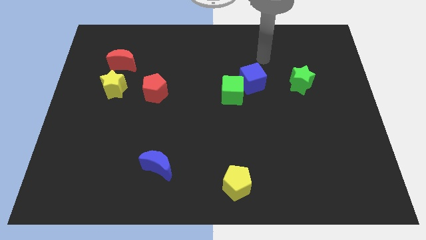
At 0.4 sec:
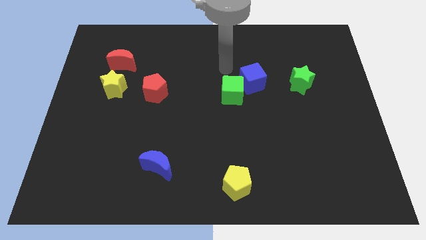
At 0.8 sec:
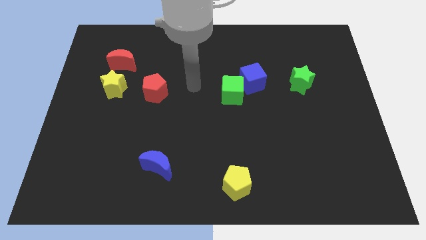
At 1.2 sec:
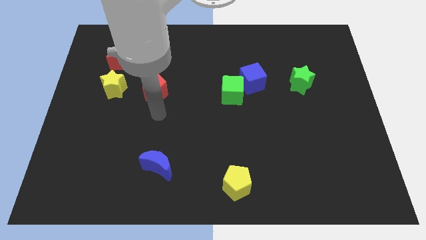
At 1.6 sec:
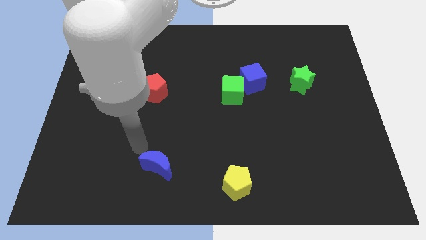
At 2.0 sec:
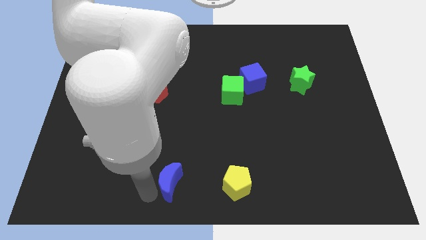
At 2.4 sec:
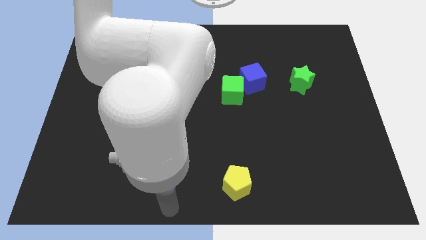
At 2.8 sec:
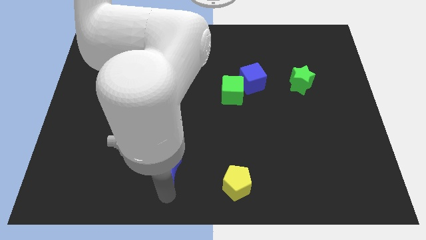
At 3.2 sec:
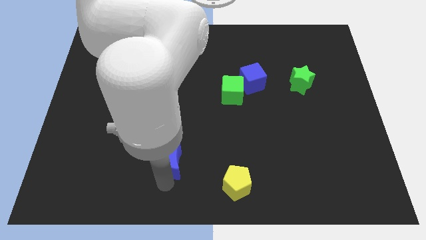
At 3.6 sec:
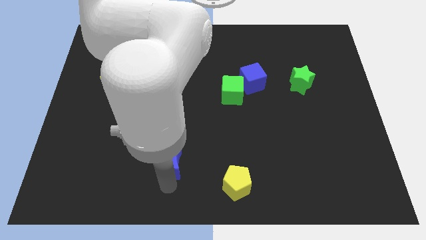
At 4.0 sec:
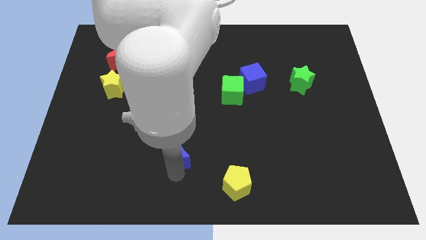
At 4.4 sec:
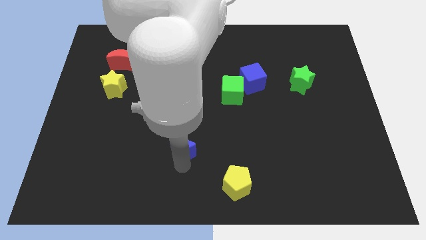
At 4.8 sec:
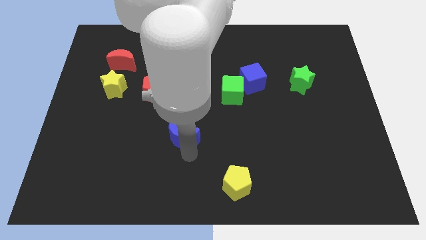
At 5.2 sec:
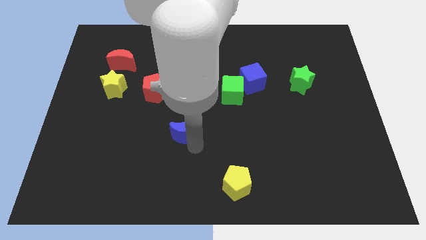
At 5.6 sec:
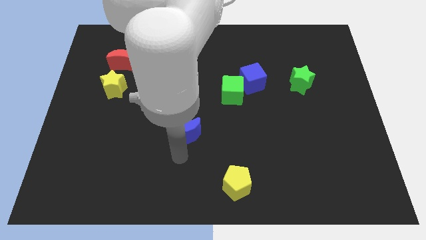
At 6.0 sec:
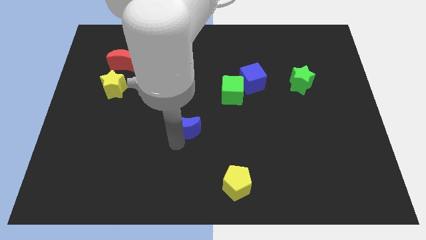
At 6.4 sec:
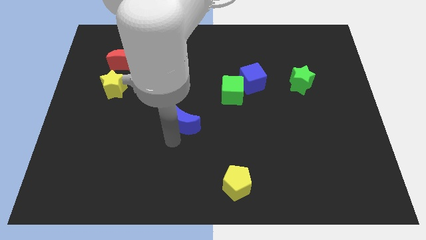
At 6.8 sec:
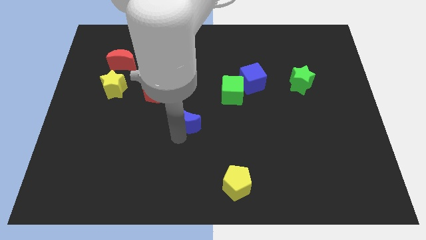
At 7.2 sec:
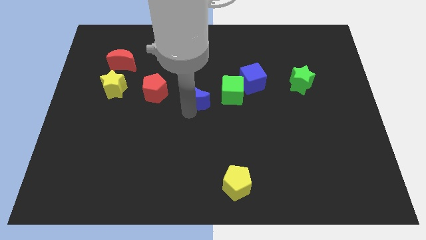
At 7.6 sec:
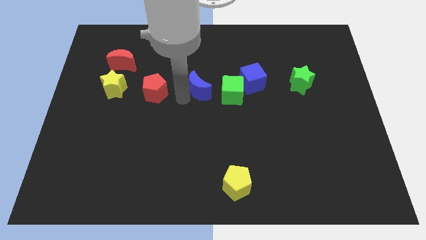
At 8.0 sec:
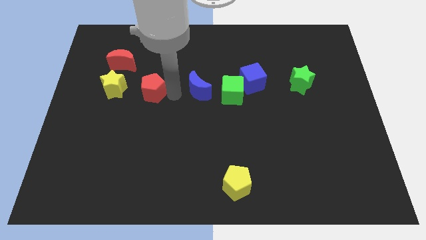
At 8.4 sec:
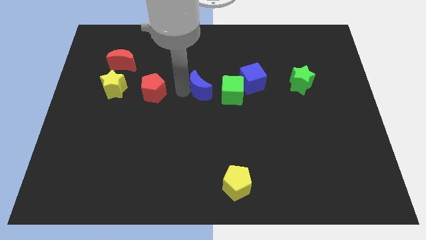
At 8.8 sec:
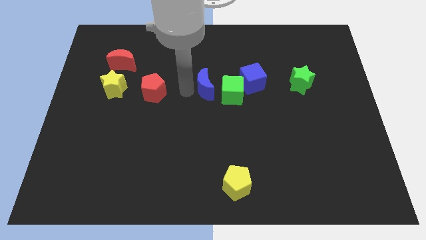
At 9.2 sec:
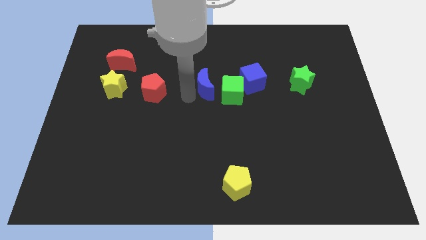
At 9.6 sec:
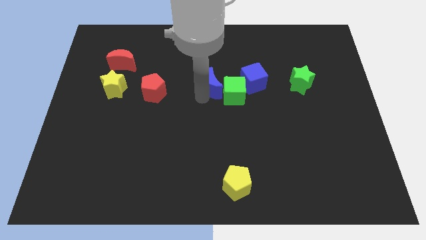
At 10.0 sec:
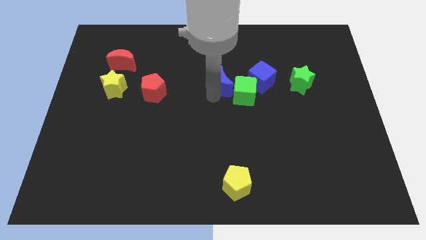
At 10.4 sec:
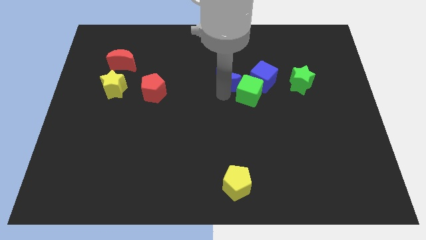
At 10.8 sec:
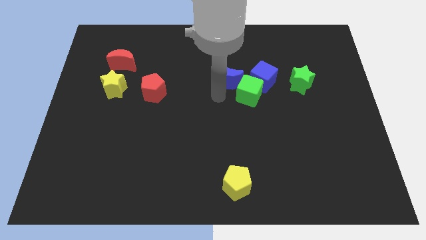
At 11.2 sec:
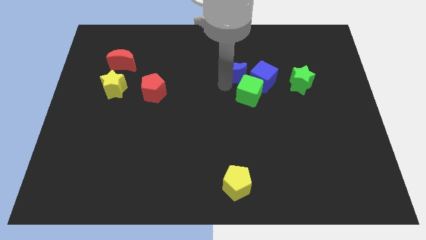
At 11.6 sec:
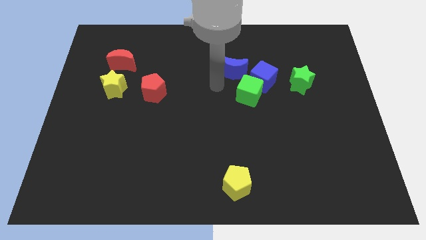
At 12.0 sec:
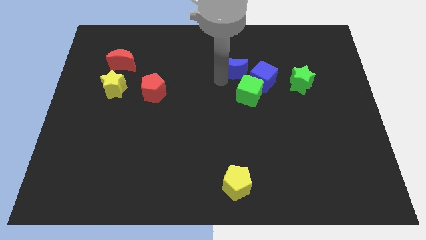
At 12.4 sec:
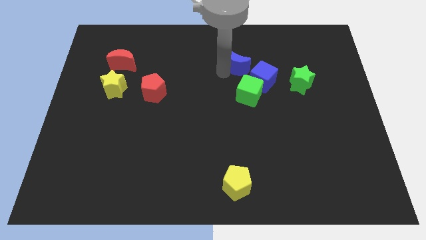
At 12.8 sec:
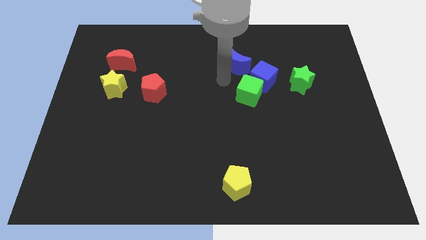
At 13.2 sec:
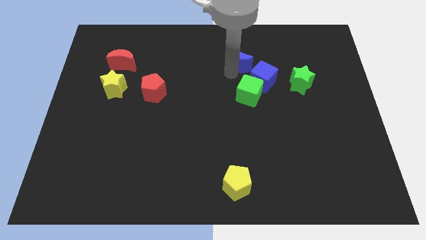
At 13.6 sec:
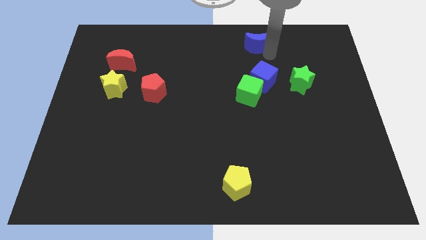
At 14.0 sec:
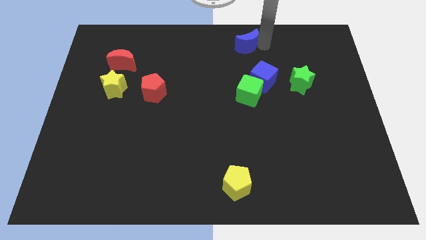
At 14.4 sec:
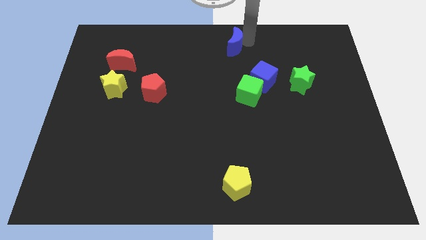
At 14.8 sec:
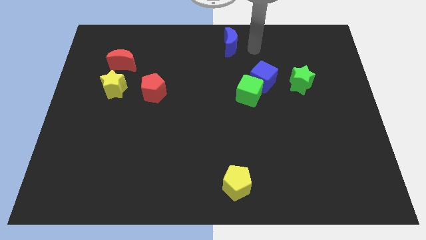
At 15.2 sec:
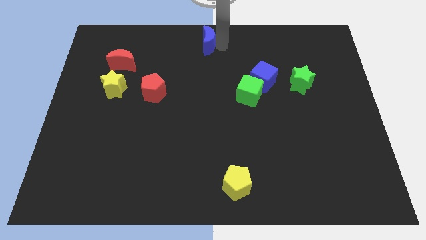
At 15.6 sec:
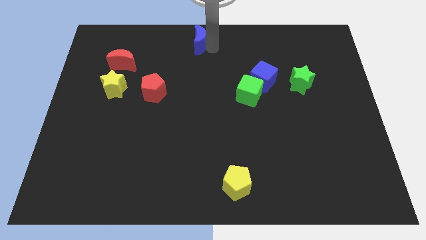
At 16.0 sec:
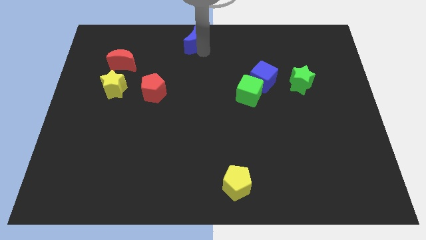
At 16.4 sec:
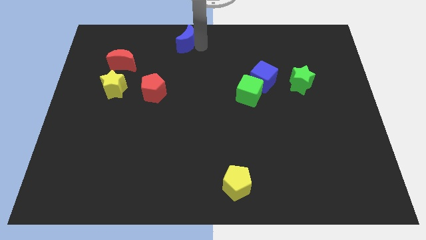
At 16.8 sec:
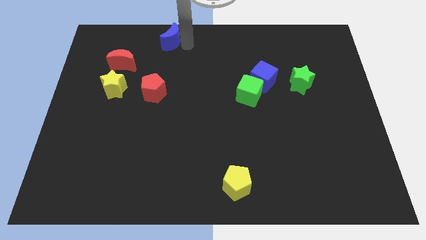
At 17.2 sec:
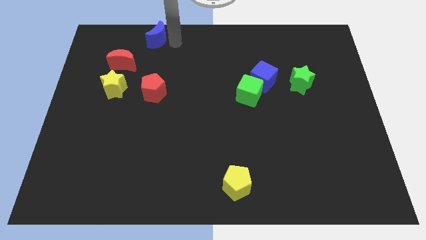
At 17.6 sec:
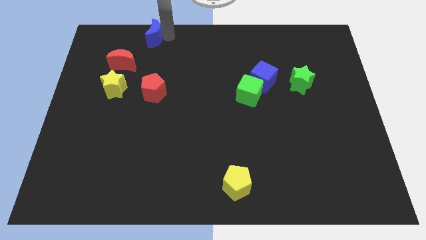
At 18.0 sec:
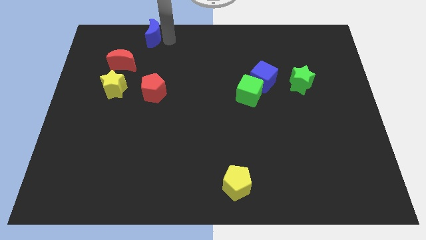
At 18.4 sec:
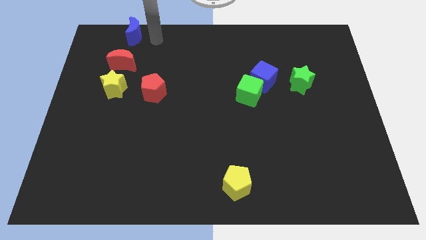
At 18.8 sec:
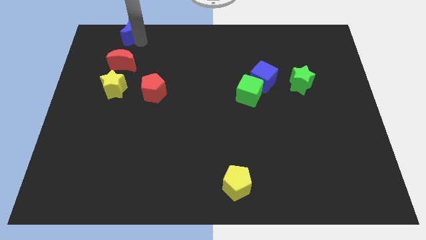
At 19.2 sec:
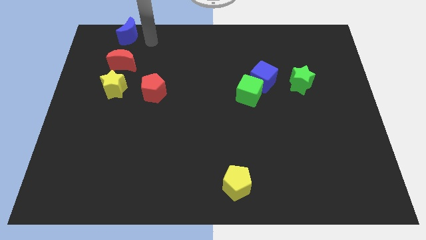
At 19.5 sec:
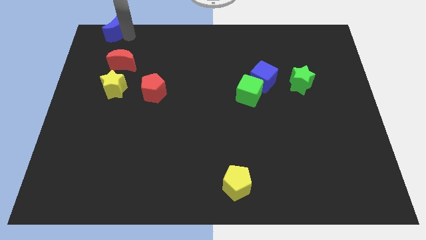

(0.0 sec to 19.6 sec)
move the blue moon to the top left corner

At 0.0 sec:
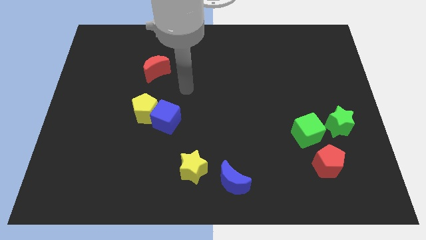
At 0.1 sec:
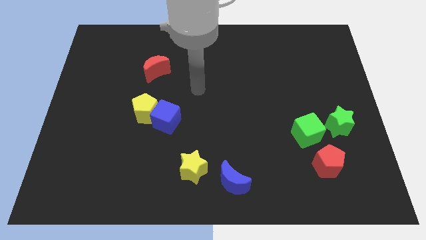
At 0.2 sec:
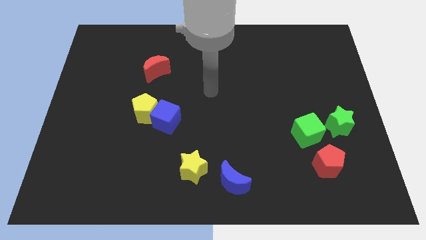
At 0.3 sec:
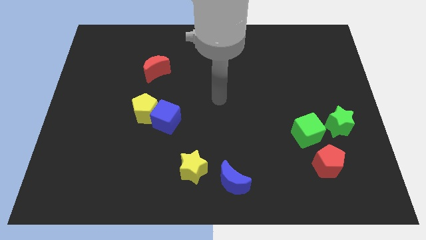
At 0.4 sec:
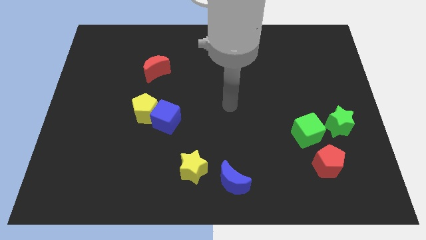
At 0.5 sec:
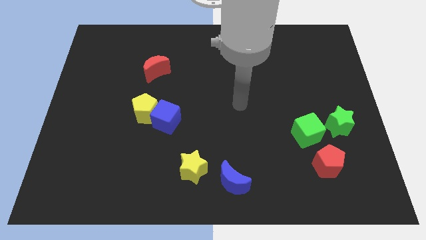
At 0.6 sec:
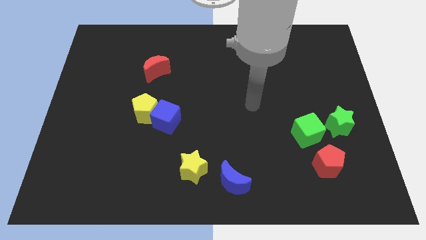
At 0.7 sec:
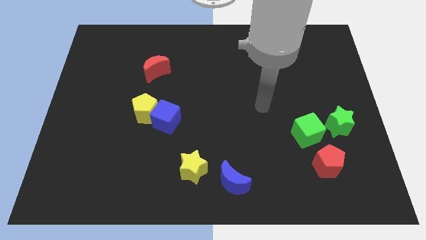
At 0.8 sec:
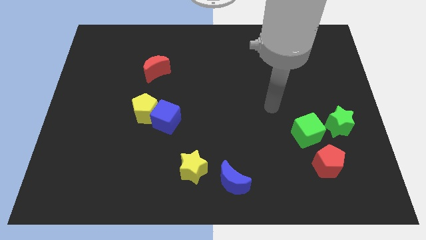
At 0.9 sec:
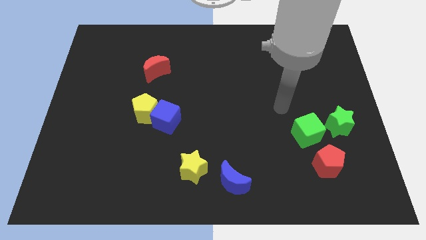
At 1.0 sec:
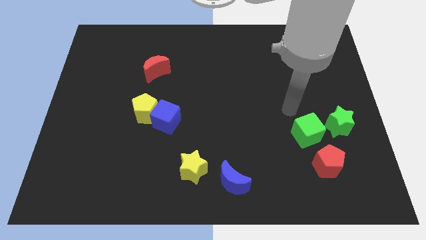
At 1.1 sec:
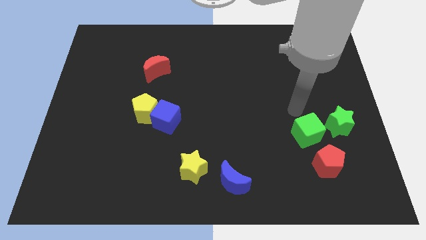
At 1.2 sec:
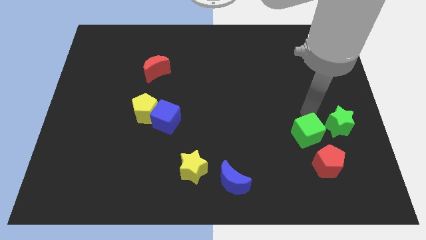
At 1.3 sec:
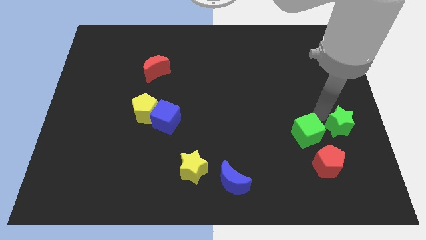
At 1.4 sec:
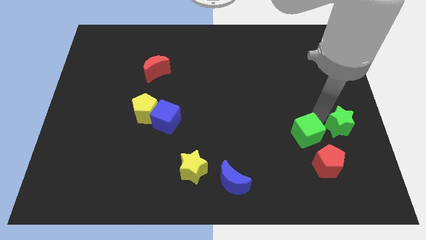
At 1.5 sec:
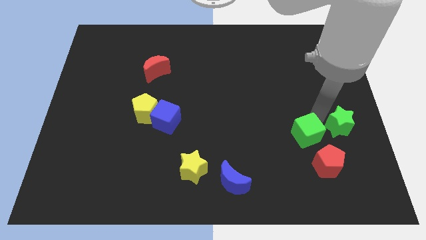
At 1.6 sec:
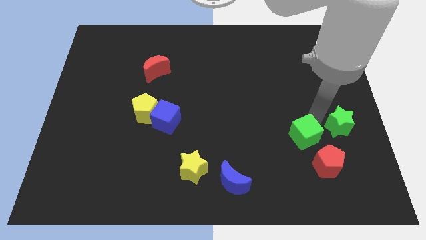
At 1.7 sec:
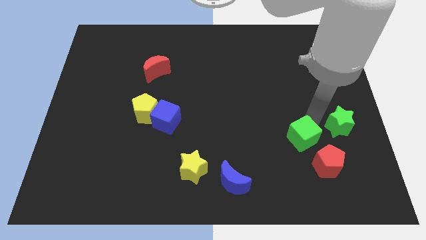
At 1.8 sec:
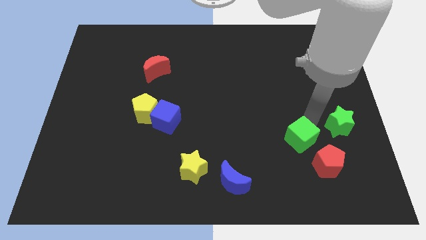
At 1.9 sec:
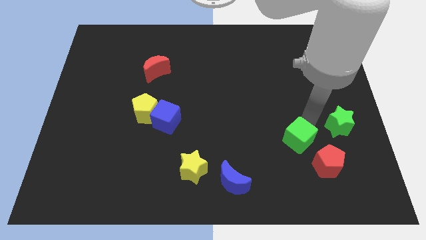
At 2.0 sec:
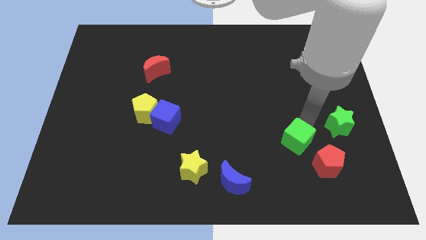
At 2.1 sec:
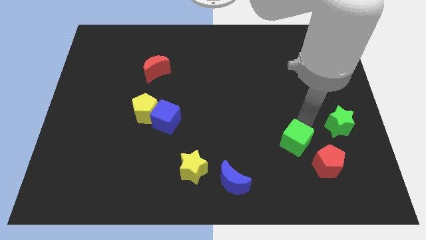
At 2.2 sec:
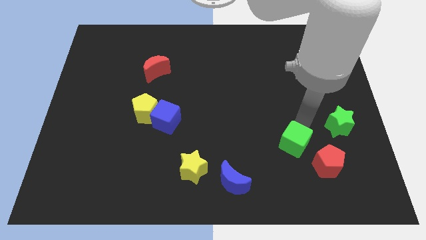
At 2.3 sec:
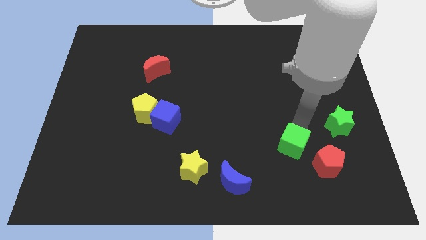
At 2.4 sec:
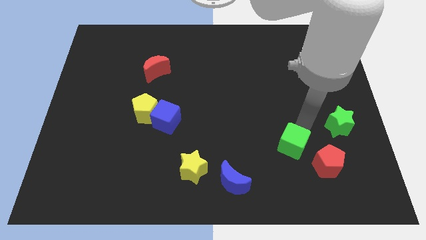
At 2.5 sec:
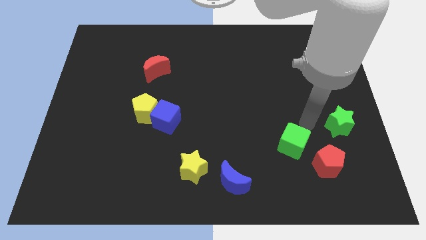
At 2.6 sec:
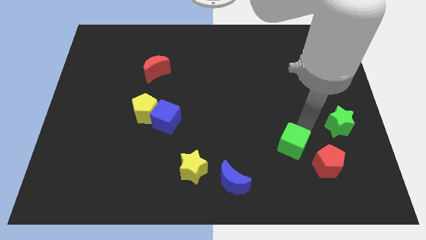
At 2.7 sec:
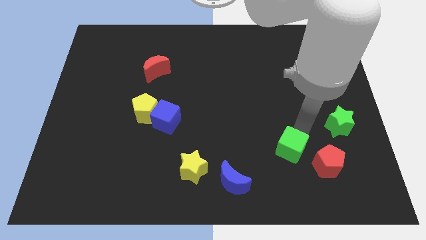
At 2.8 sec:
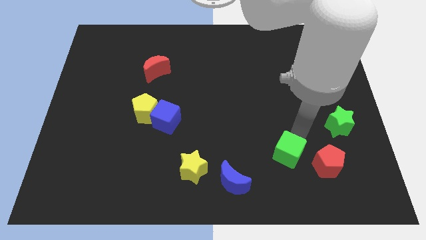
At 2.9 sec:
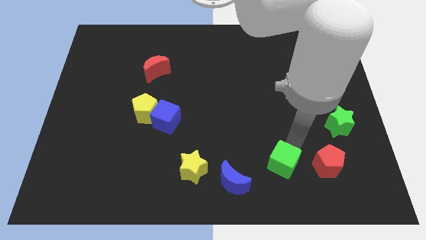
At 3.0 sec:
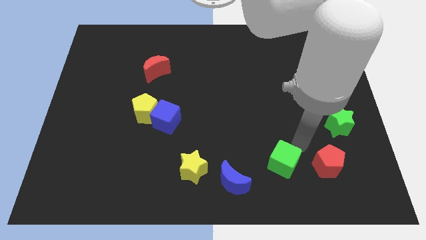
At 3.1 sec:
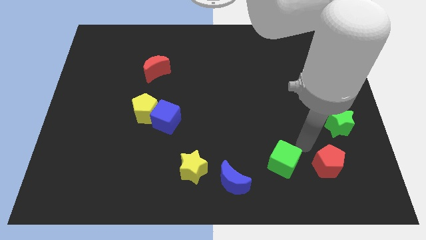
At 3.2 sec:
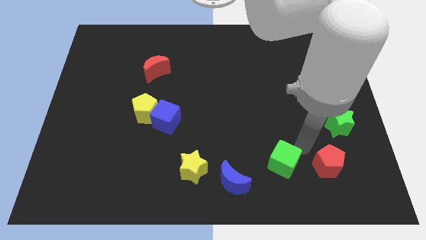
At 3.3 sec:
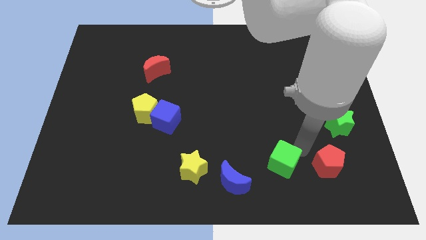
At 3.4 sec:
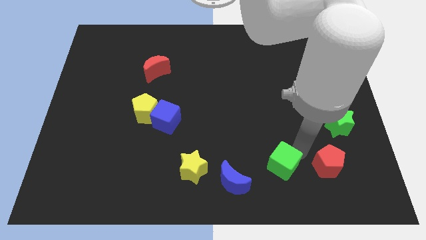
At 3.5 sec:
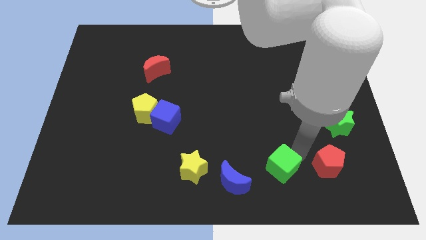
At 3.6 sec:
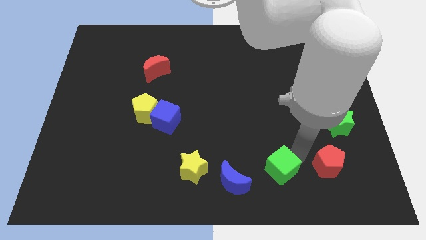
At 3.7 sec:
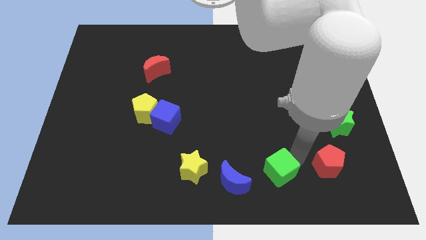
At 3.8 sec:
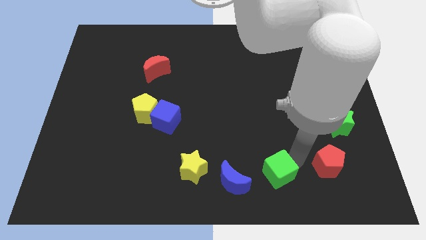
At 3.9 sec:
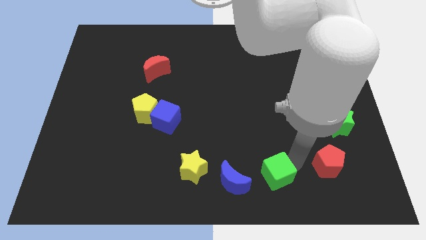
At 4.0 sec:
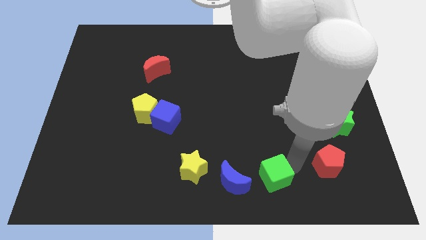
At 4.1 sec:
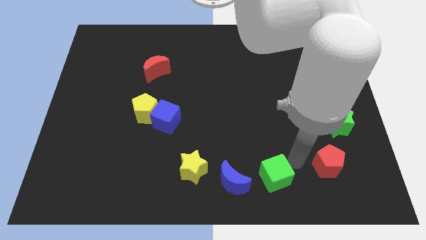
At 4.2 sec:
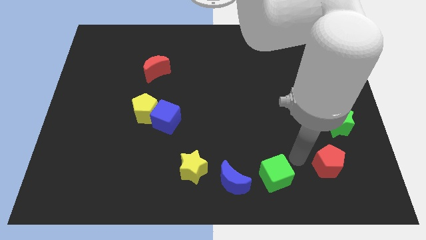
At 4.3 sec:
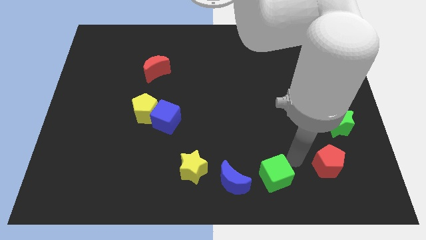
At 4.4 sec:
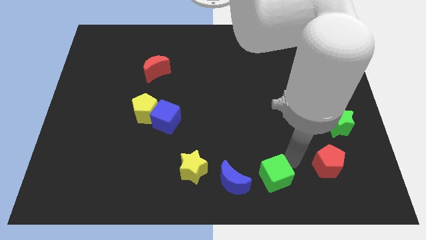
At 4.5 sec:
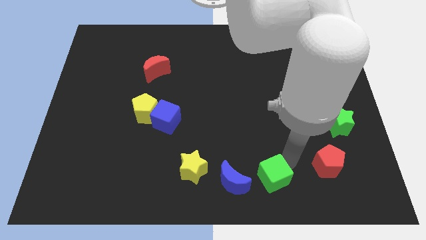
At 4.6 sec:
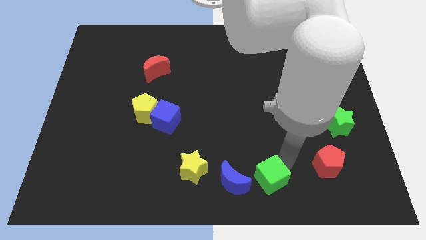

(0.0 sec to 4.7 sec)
move the green cube to the bottom
